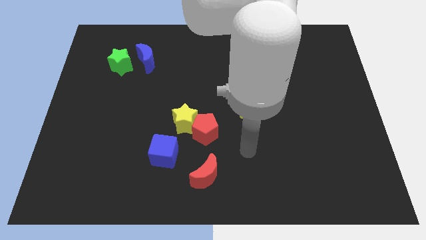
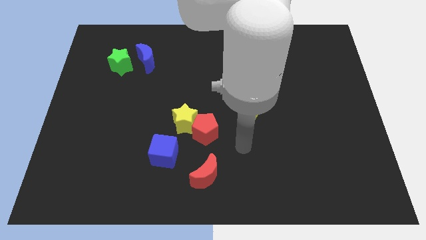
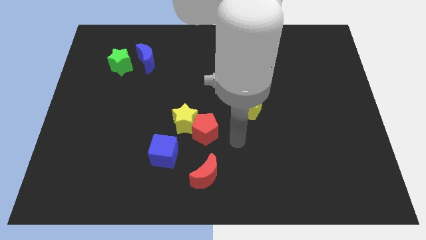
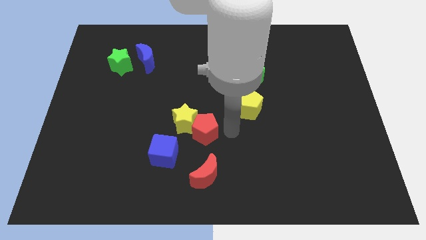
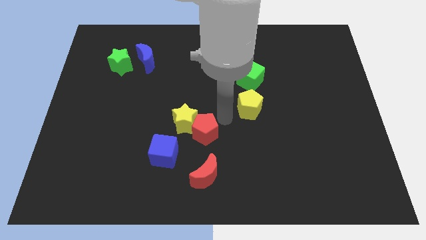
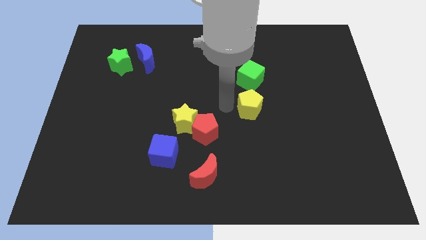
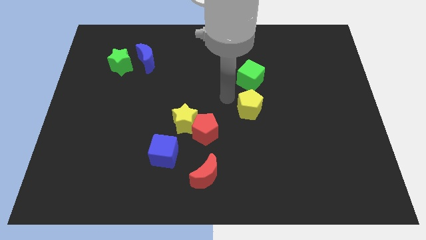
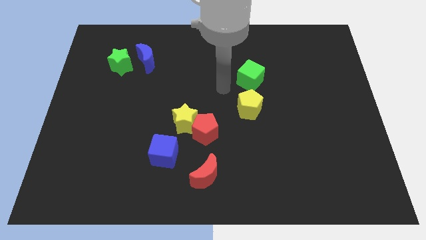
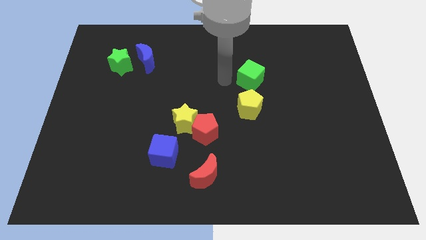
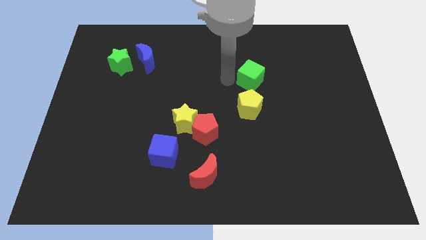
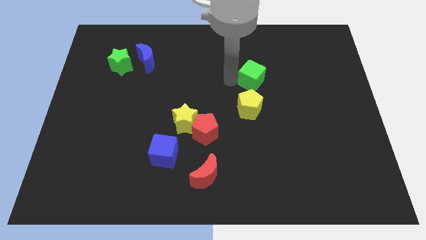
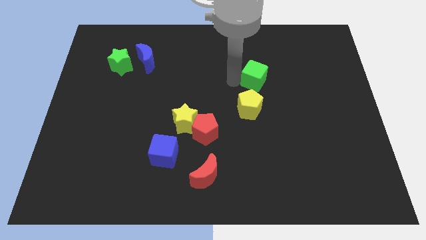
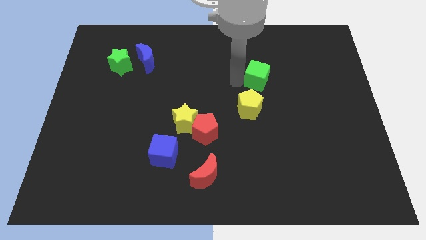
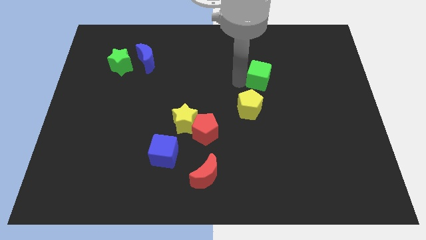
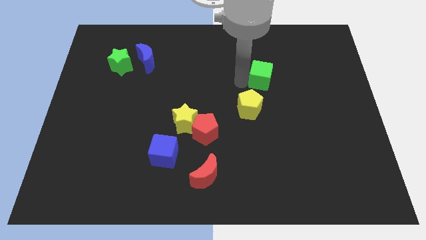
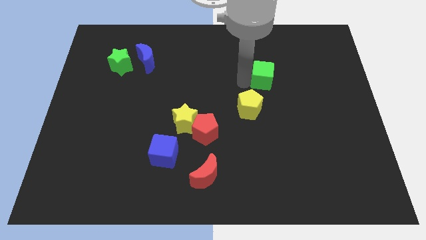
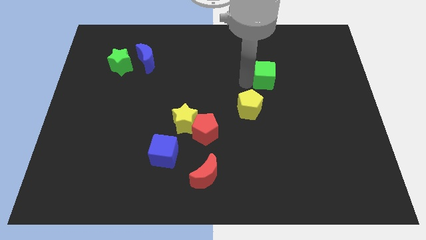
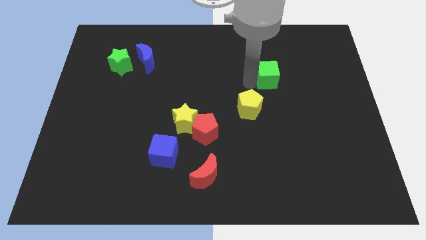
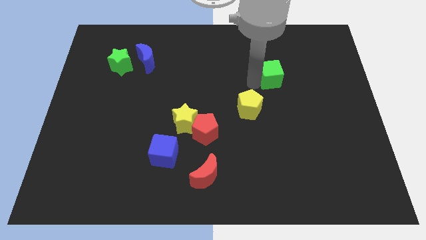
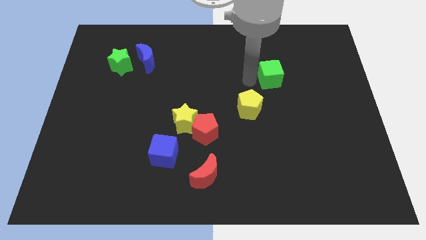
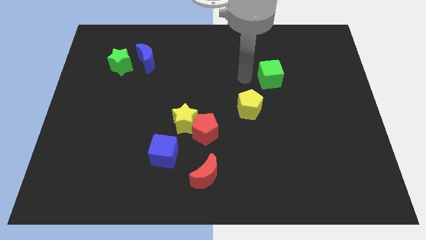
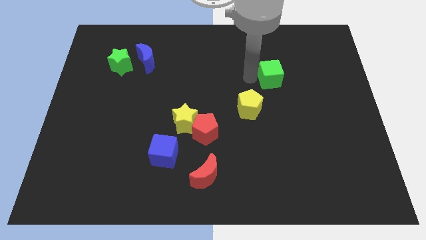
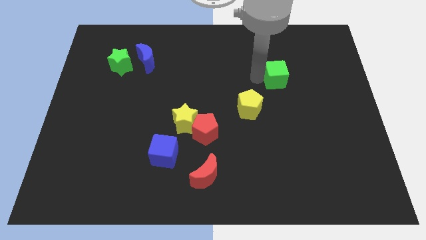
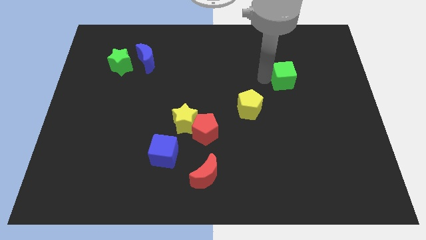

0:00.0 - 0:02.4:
slide the green cube somewhat right

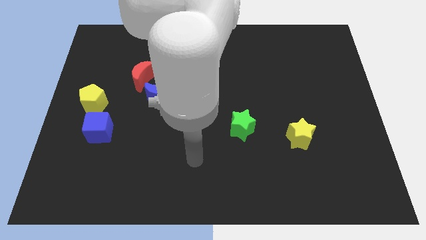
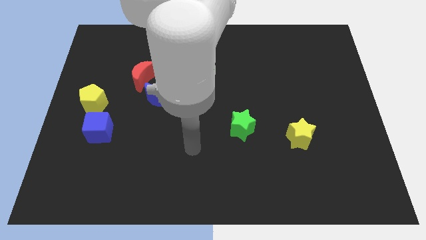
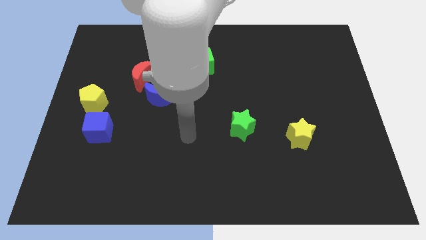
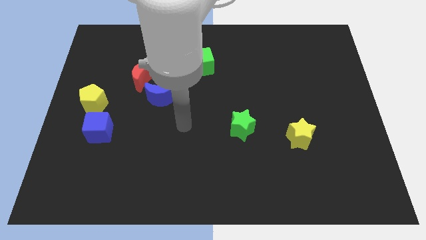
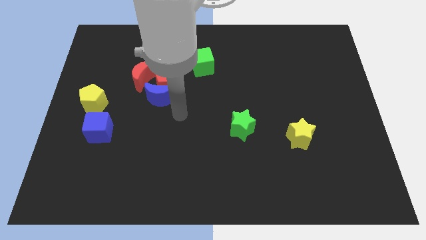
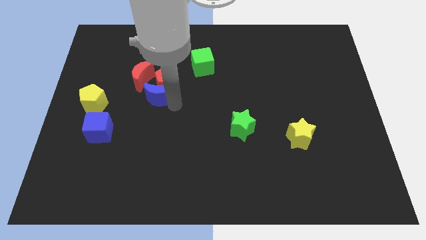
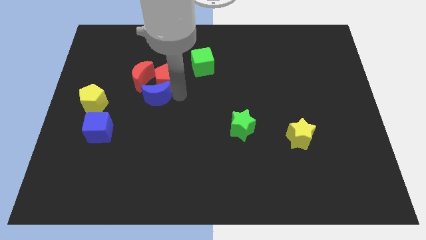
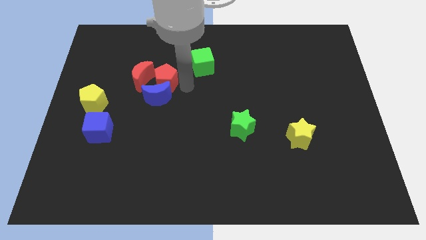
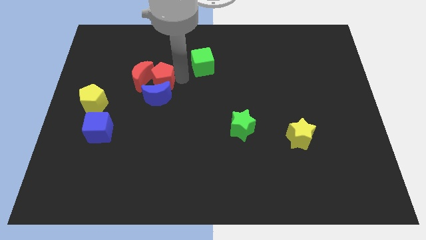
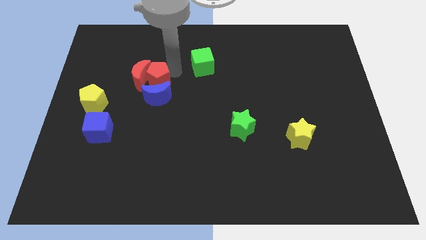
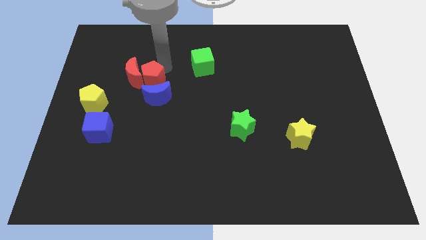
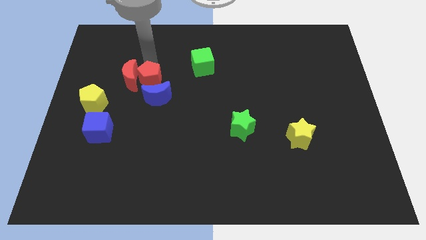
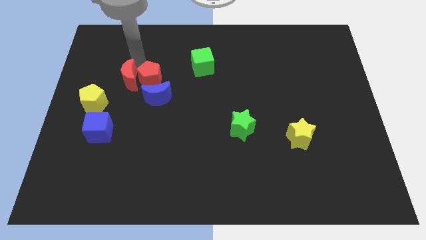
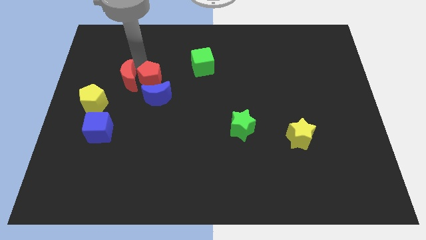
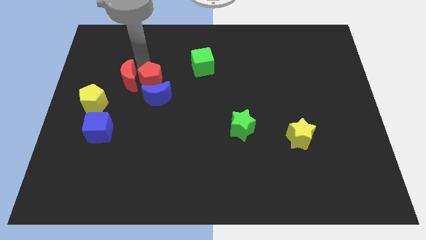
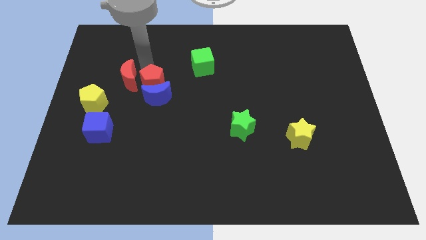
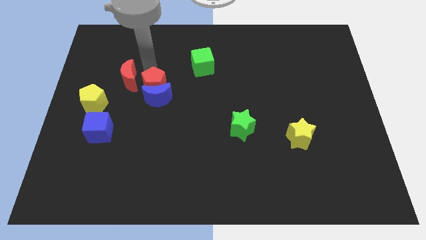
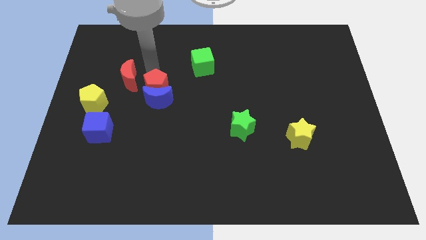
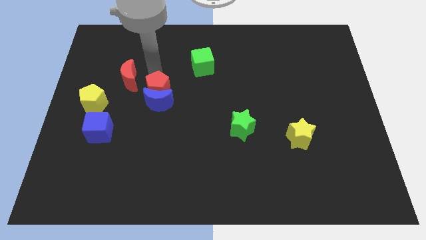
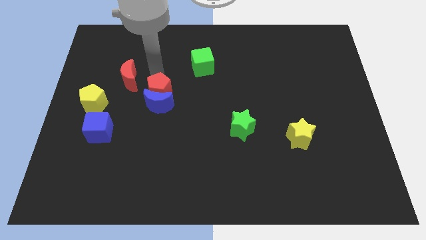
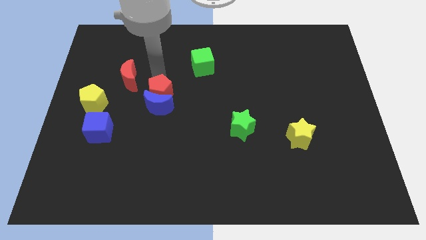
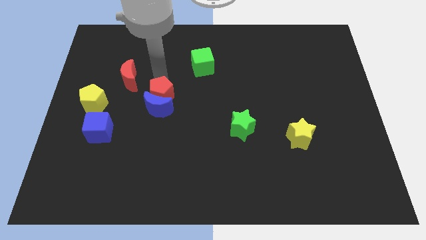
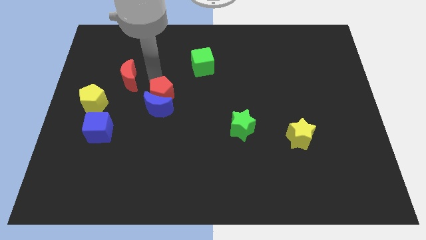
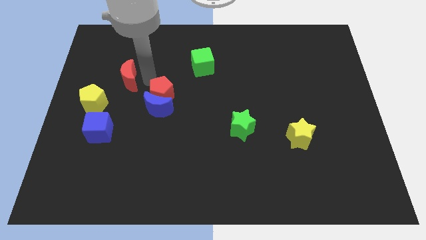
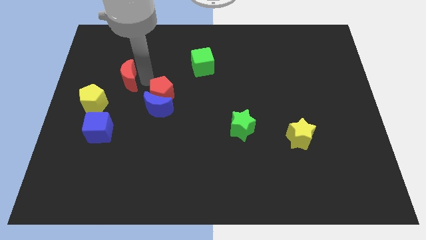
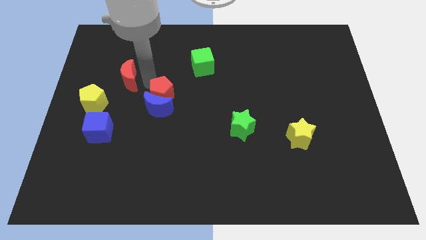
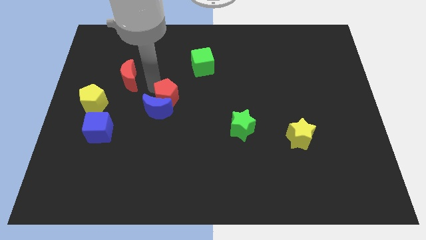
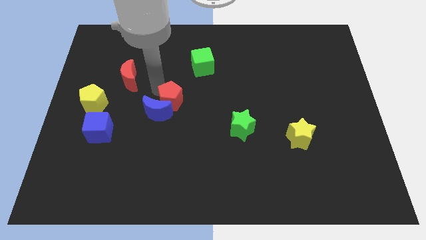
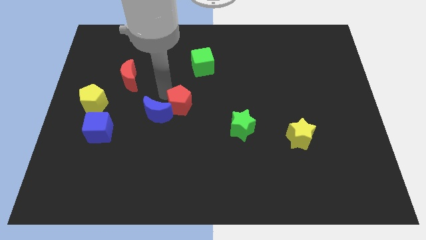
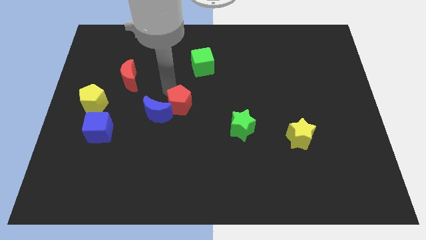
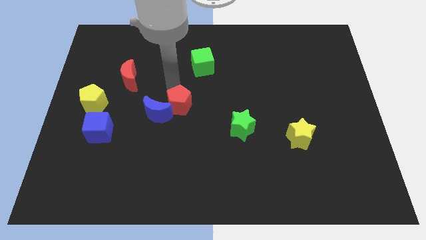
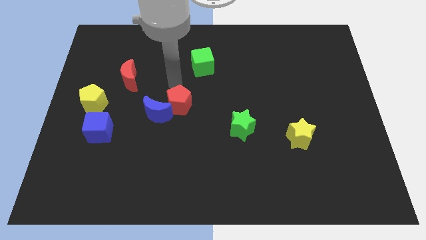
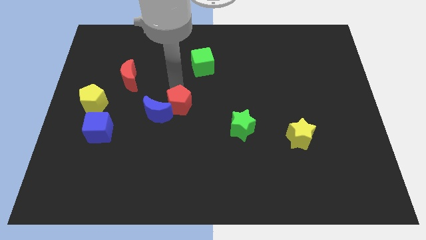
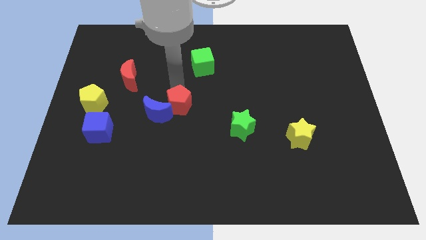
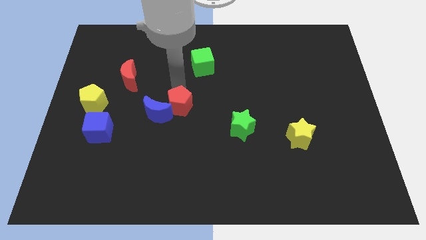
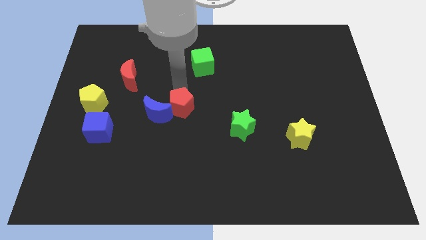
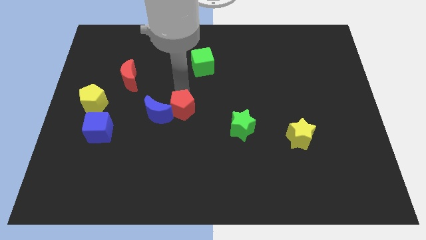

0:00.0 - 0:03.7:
slide the red pentagon somewhat down

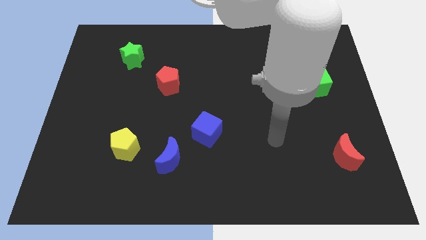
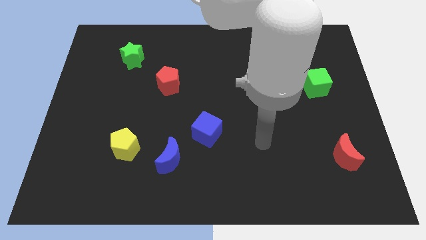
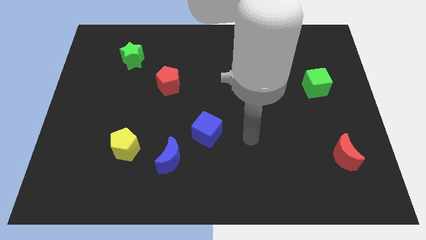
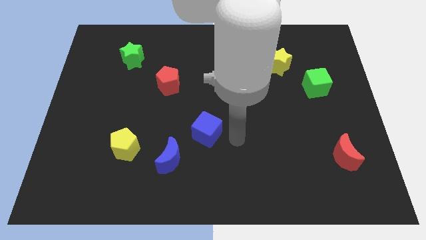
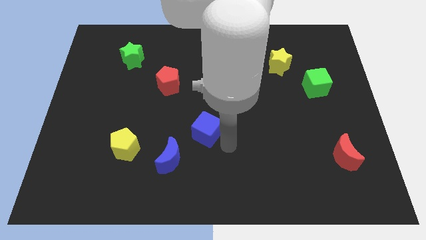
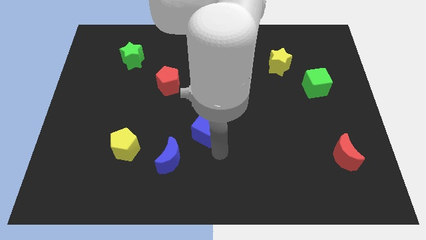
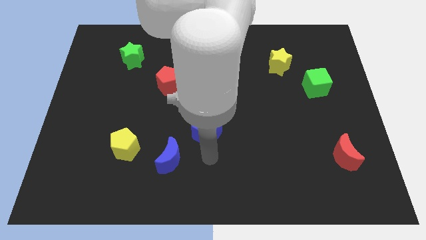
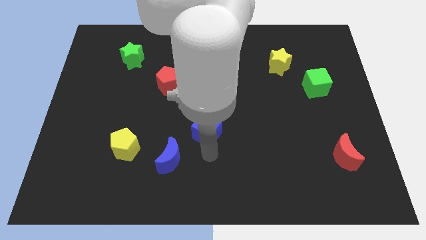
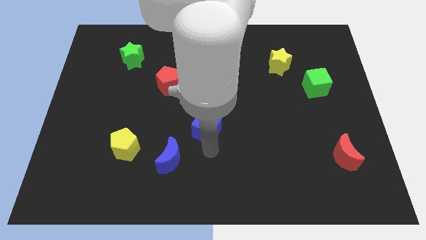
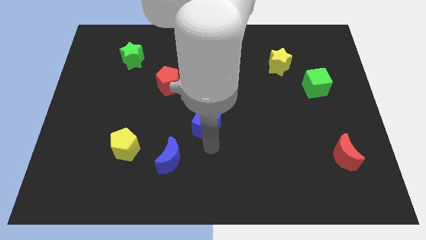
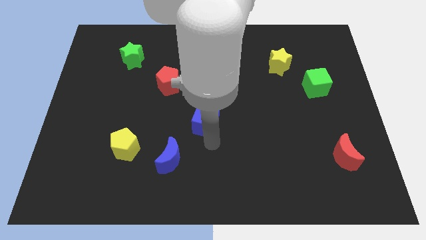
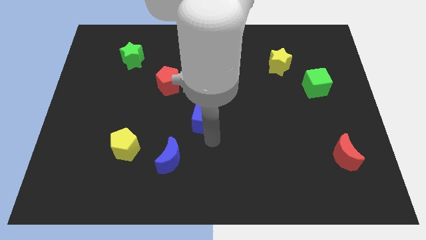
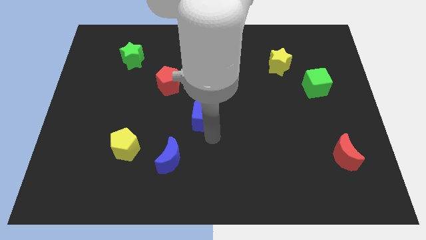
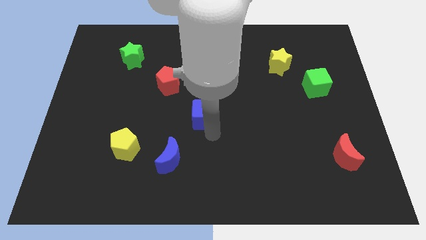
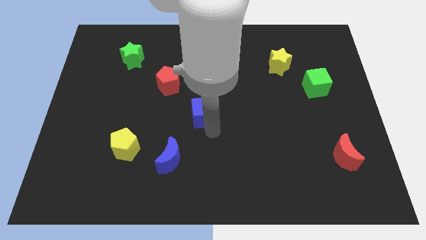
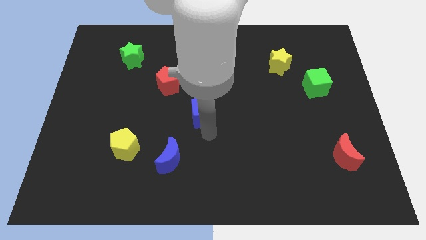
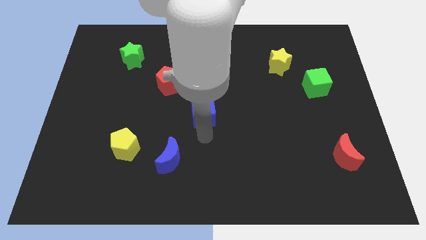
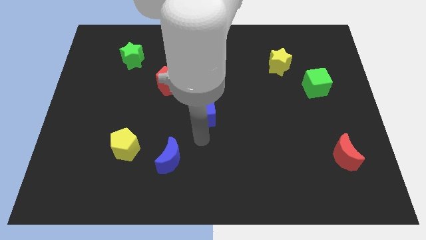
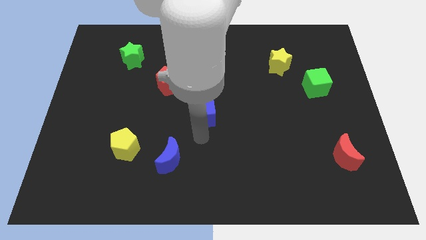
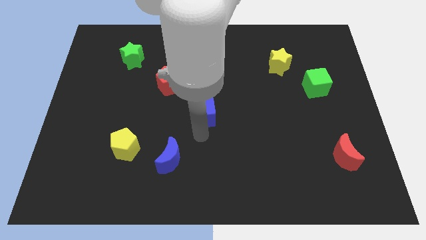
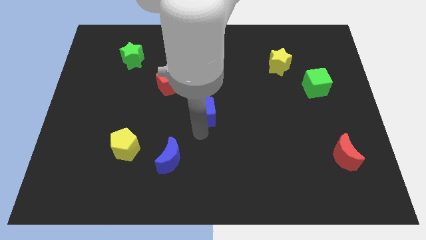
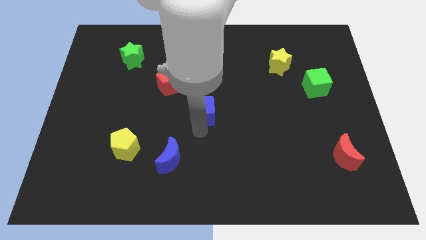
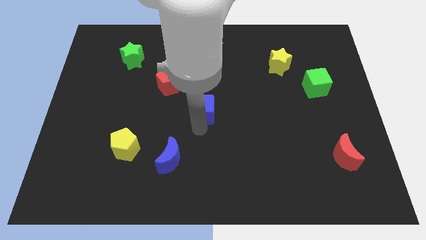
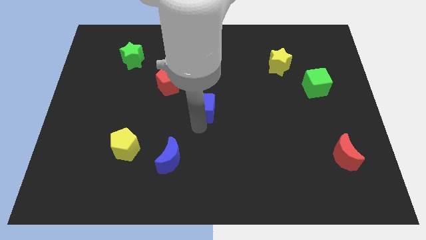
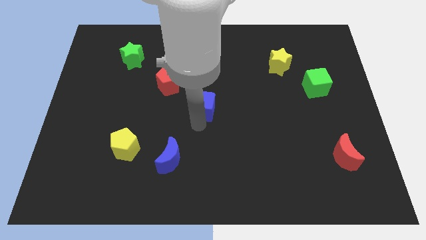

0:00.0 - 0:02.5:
slide the blue cube a little bit upwards
